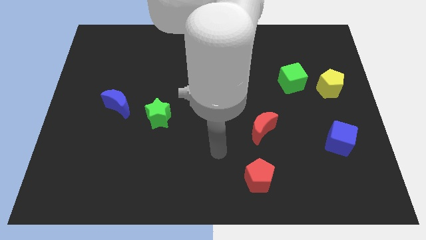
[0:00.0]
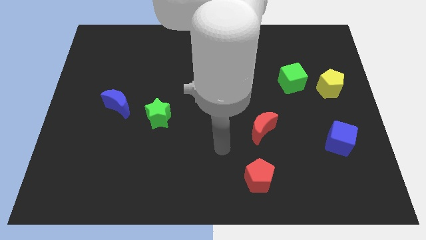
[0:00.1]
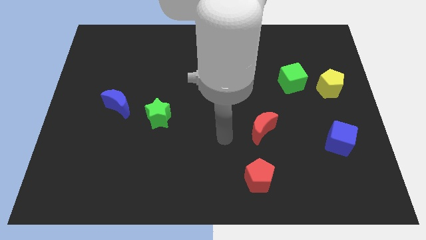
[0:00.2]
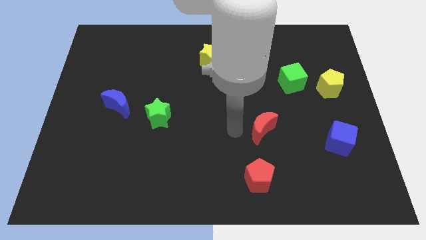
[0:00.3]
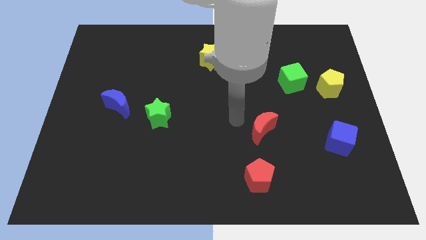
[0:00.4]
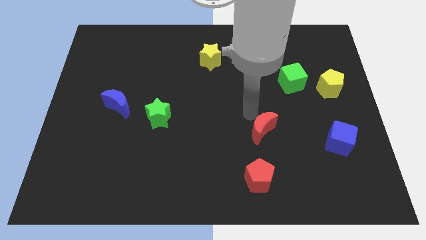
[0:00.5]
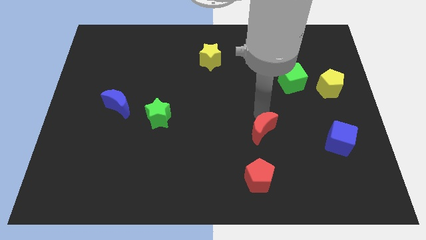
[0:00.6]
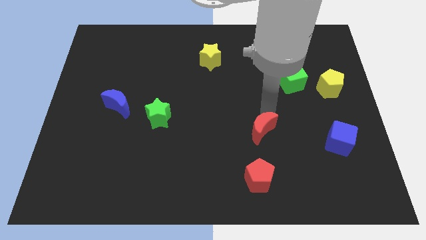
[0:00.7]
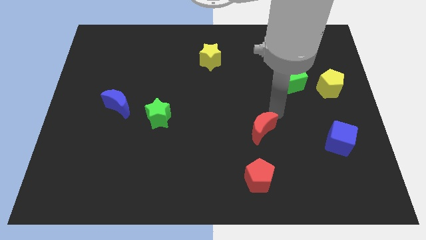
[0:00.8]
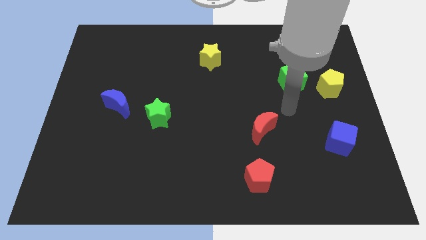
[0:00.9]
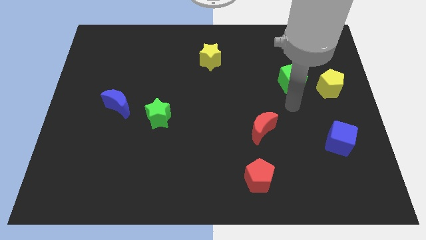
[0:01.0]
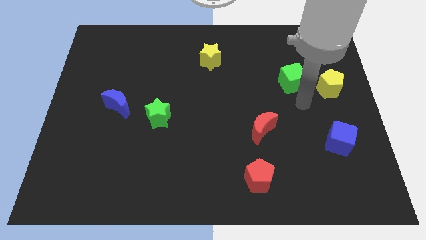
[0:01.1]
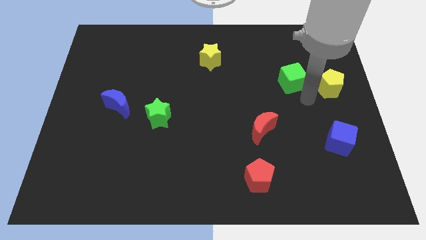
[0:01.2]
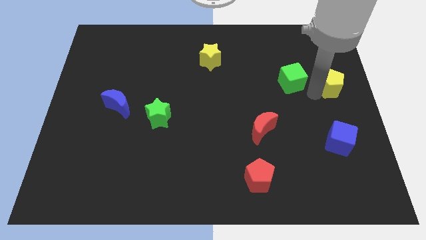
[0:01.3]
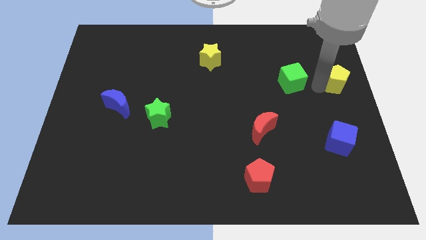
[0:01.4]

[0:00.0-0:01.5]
move the green cube away from the yellow pentagon

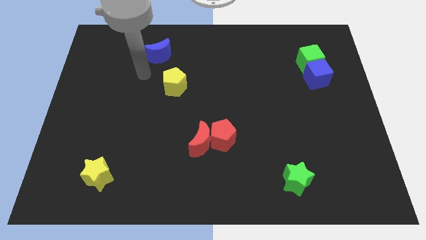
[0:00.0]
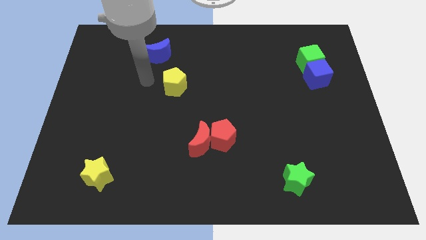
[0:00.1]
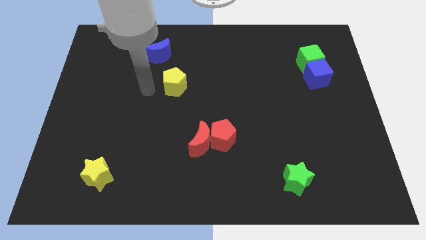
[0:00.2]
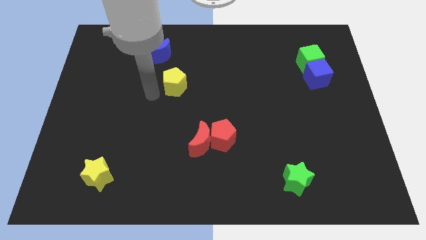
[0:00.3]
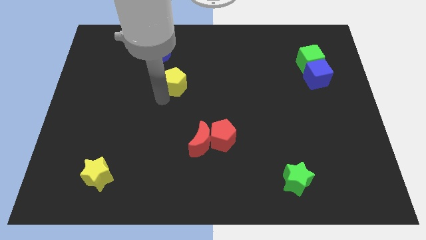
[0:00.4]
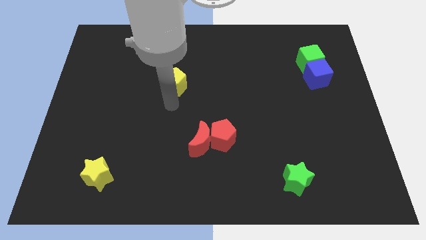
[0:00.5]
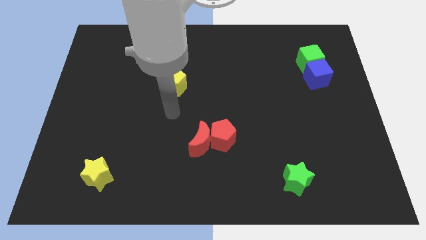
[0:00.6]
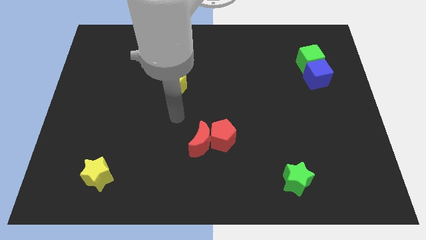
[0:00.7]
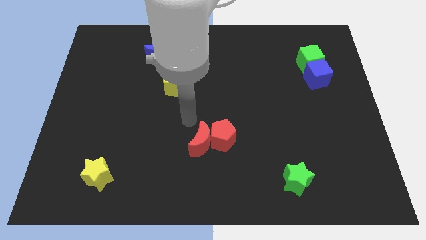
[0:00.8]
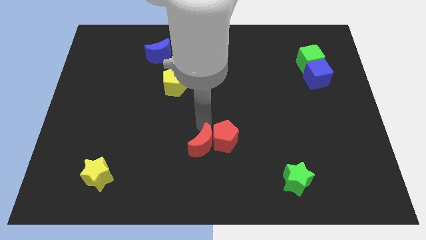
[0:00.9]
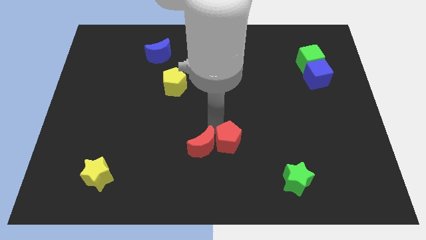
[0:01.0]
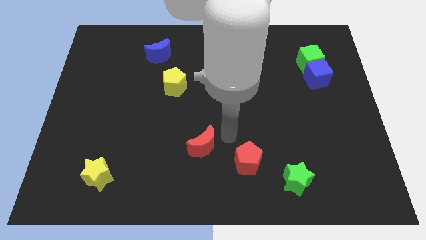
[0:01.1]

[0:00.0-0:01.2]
separate the red moon from the red pentagon

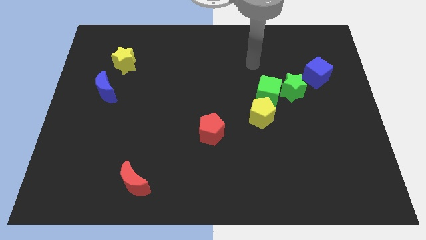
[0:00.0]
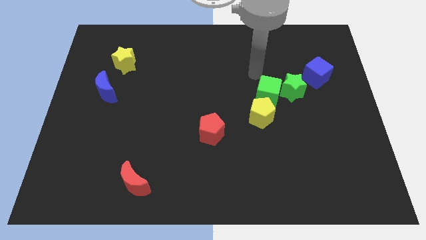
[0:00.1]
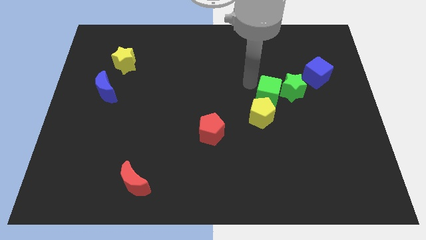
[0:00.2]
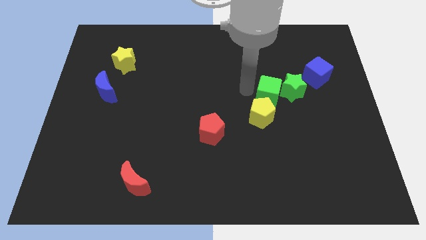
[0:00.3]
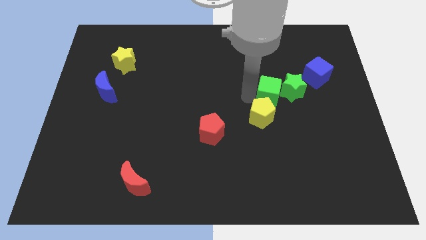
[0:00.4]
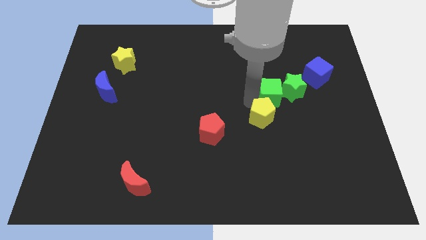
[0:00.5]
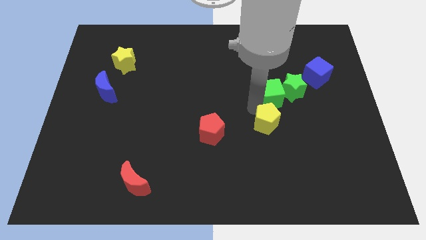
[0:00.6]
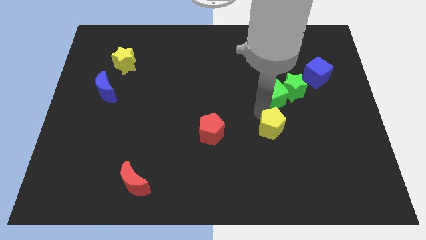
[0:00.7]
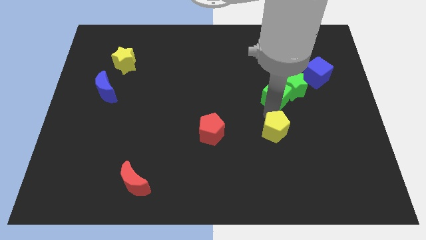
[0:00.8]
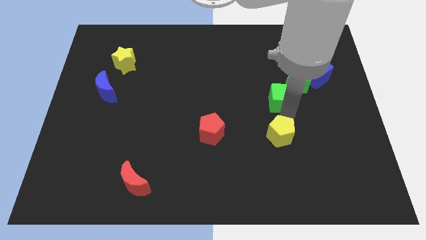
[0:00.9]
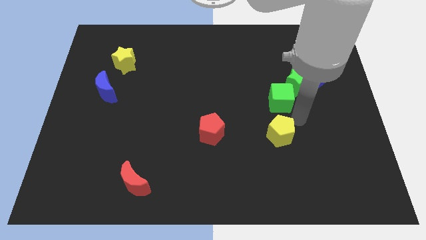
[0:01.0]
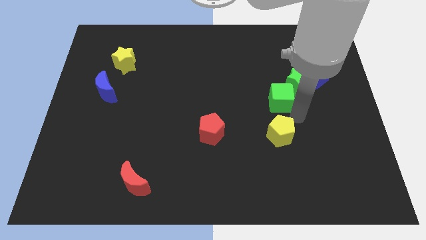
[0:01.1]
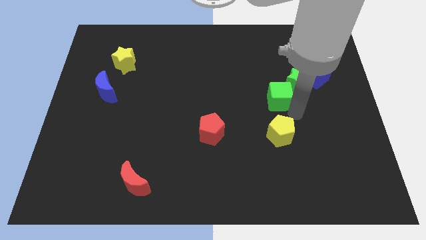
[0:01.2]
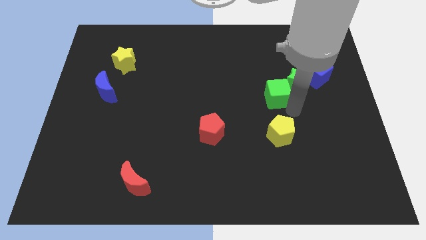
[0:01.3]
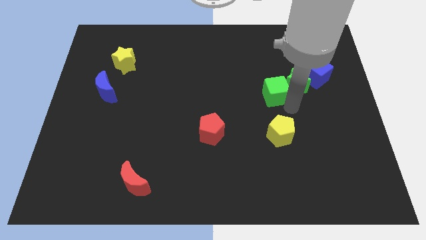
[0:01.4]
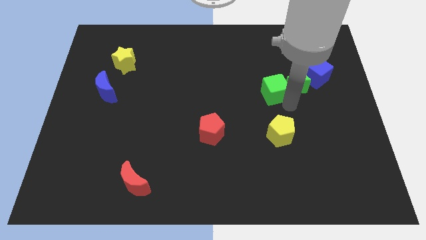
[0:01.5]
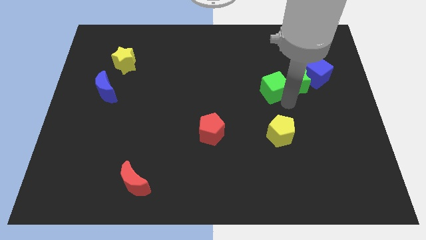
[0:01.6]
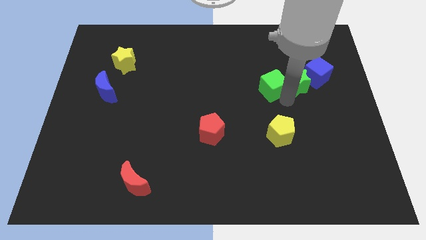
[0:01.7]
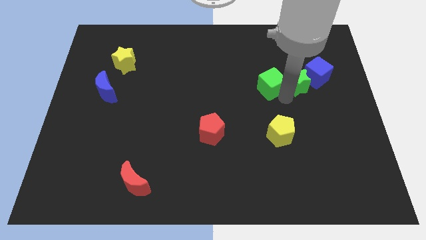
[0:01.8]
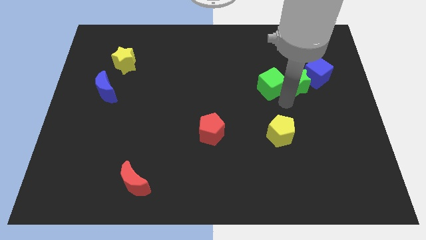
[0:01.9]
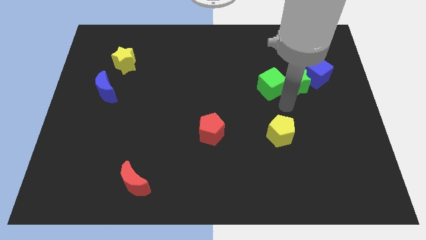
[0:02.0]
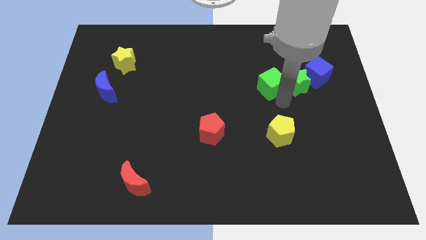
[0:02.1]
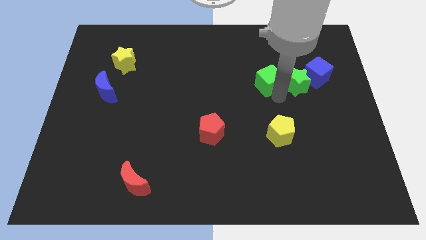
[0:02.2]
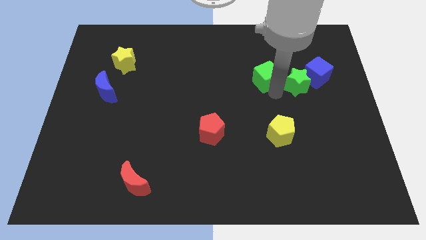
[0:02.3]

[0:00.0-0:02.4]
separate the green cube from the green star and yellow pentagon

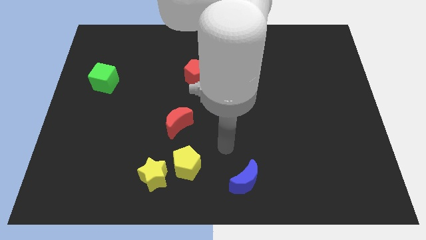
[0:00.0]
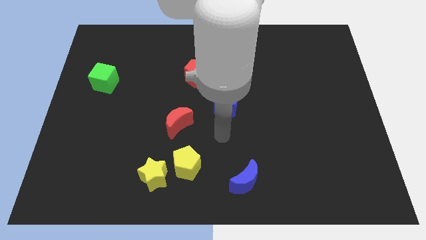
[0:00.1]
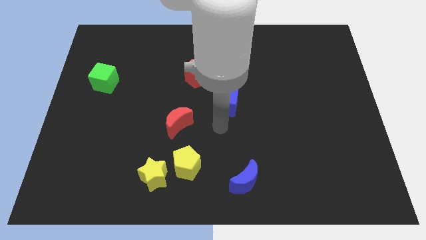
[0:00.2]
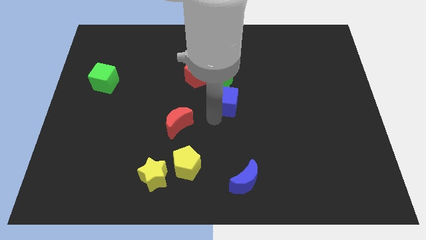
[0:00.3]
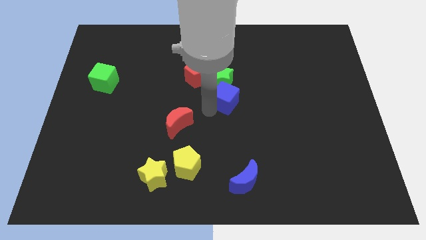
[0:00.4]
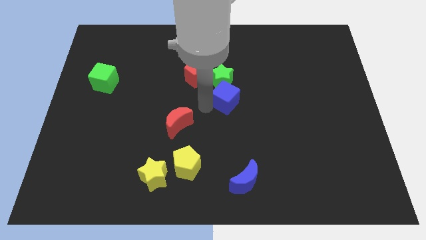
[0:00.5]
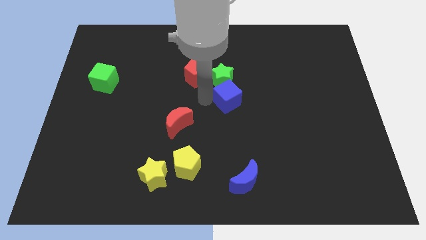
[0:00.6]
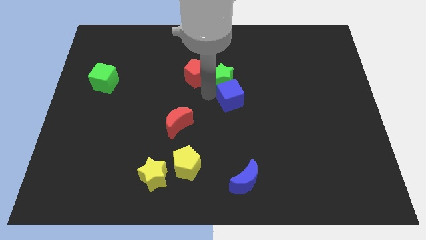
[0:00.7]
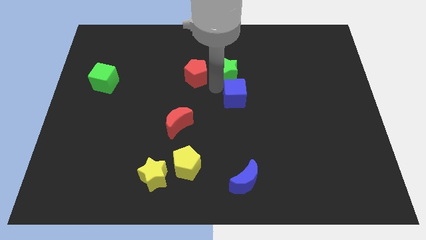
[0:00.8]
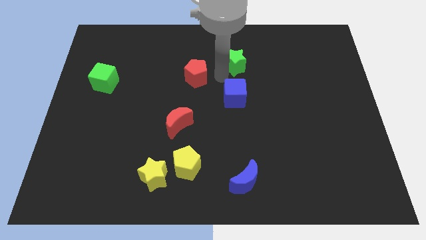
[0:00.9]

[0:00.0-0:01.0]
separate the red pentagon from the green star

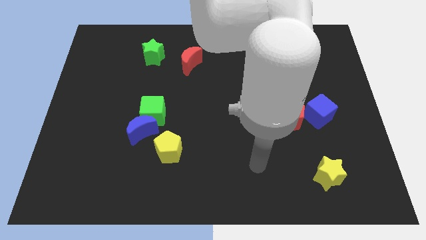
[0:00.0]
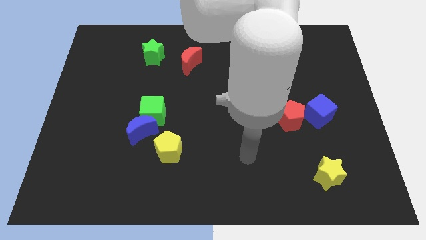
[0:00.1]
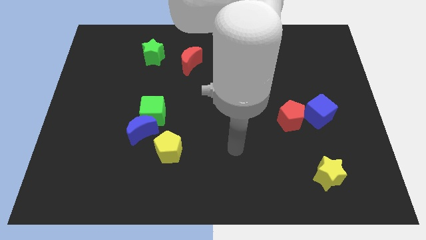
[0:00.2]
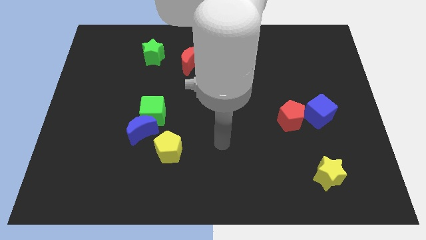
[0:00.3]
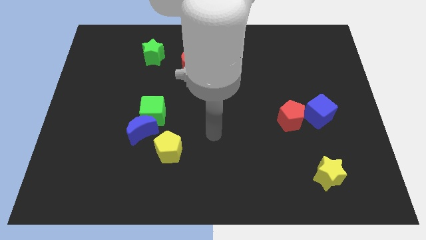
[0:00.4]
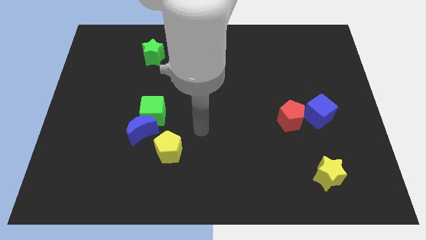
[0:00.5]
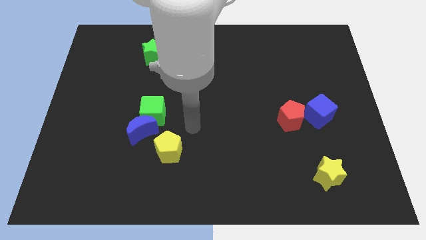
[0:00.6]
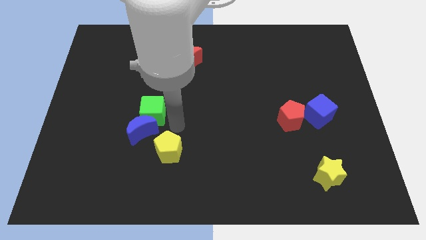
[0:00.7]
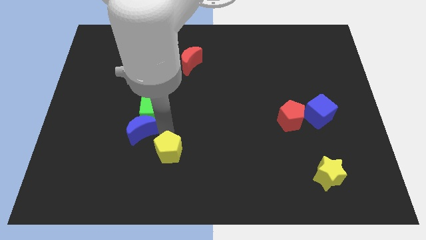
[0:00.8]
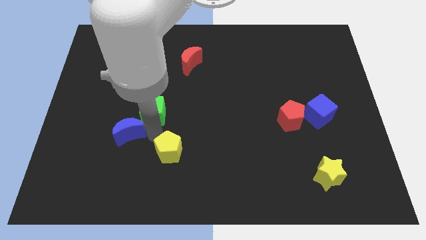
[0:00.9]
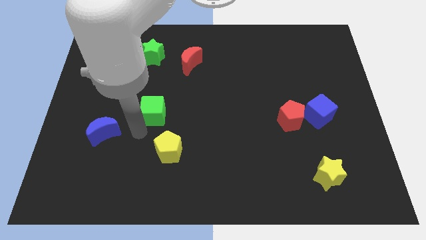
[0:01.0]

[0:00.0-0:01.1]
move the green cube away from the blue moon

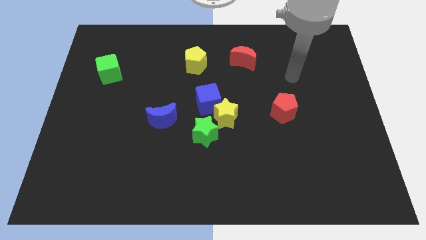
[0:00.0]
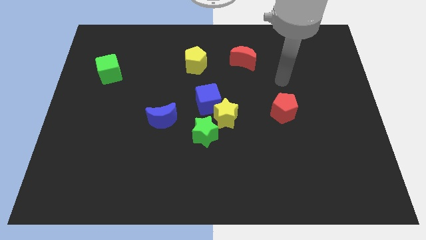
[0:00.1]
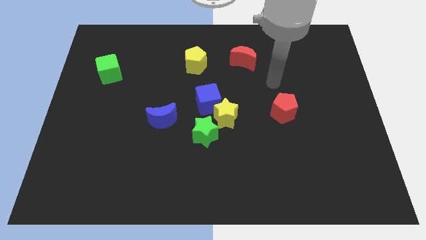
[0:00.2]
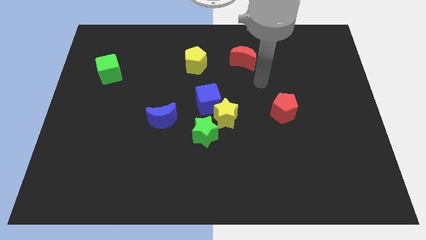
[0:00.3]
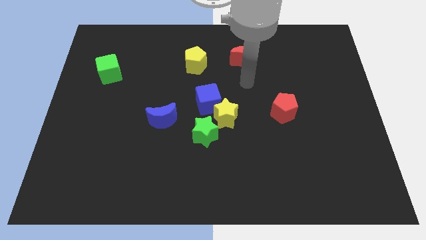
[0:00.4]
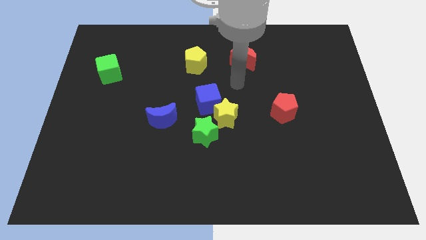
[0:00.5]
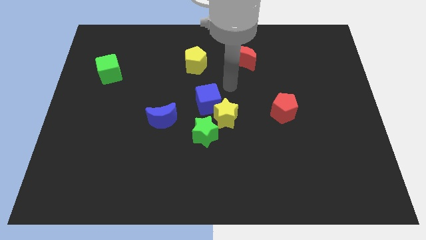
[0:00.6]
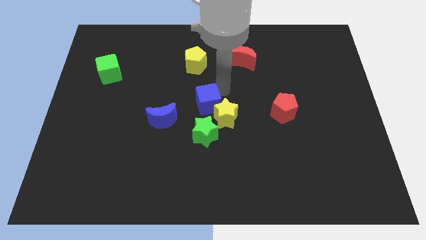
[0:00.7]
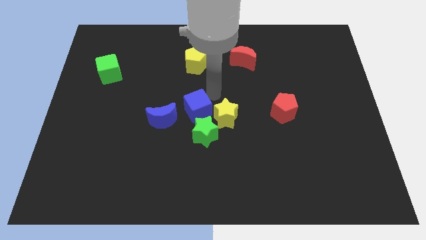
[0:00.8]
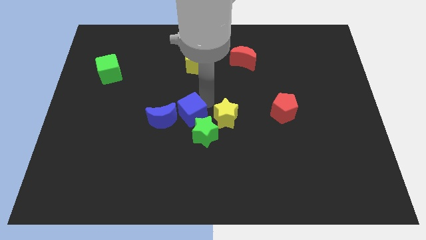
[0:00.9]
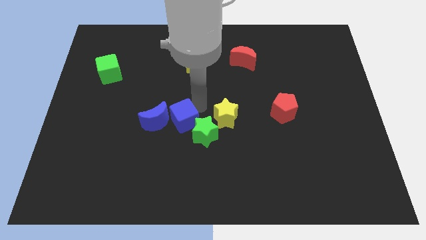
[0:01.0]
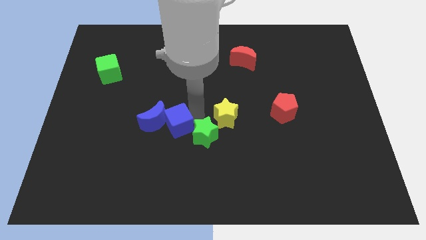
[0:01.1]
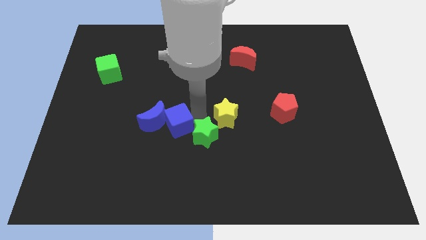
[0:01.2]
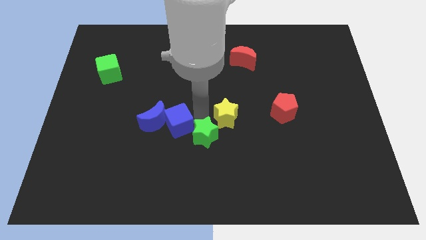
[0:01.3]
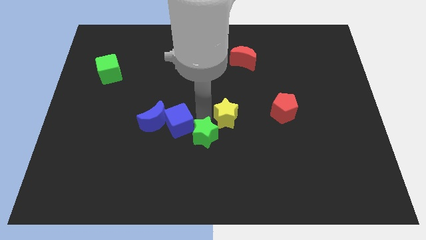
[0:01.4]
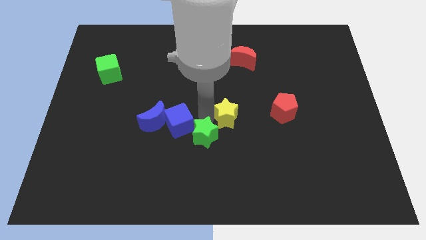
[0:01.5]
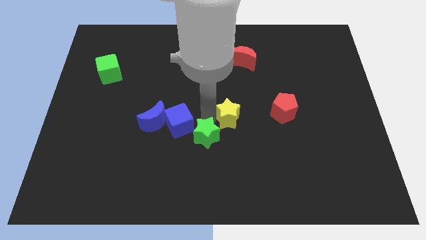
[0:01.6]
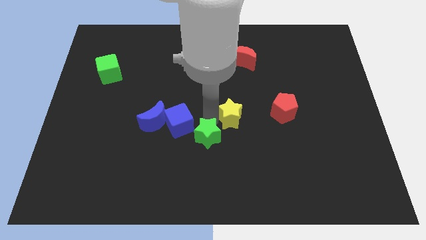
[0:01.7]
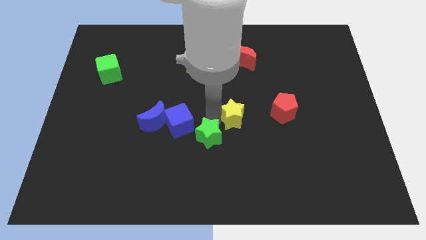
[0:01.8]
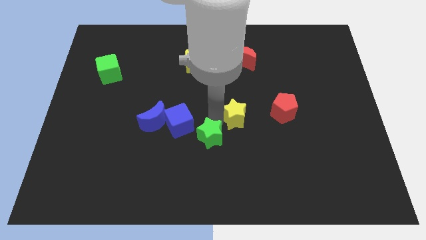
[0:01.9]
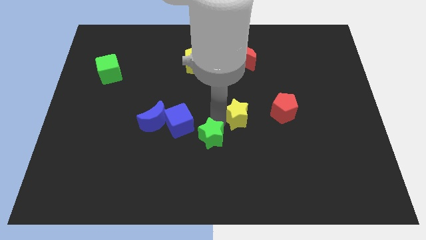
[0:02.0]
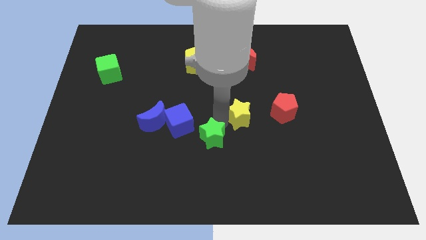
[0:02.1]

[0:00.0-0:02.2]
separate the yellow star from the blue cube and green star
